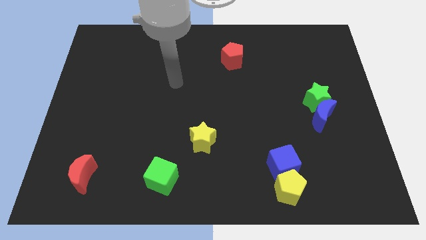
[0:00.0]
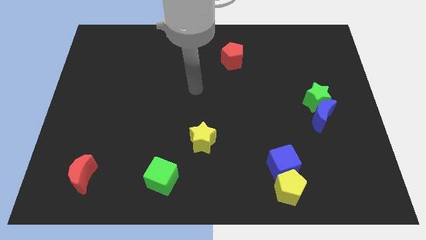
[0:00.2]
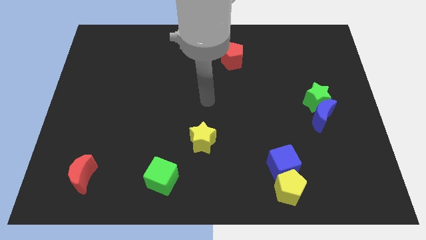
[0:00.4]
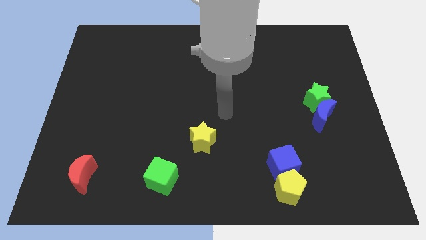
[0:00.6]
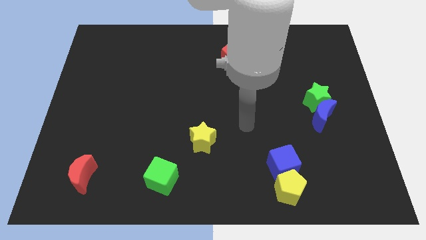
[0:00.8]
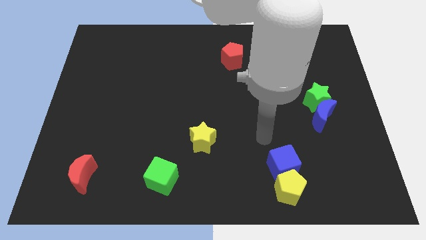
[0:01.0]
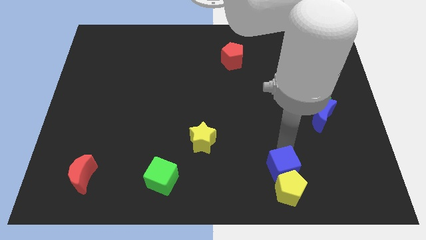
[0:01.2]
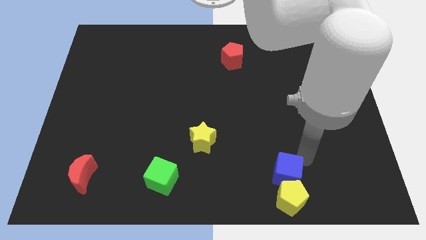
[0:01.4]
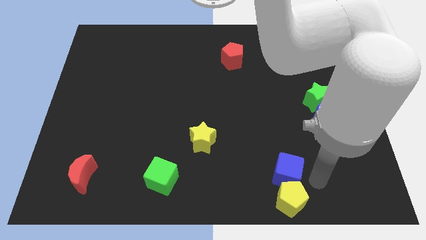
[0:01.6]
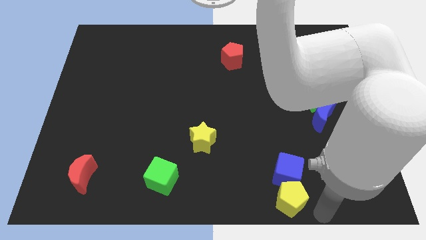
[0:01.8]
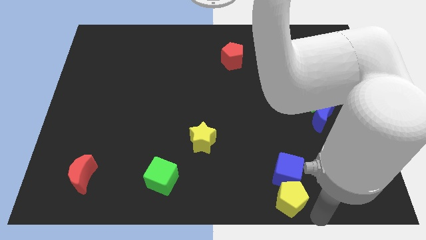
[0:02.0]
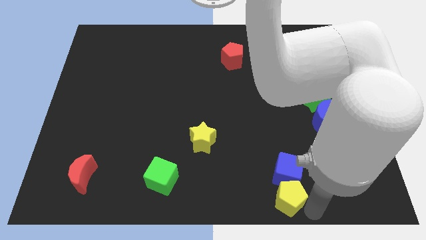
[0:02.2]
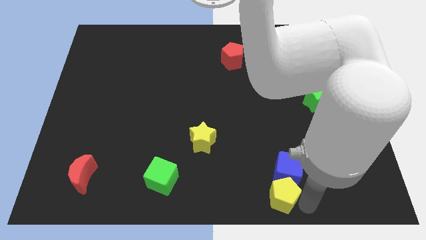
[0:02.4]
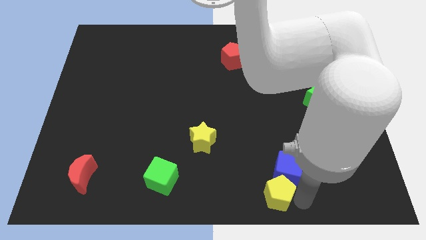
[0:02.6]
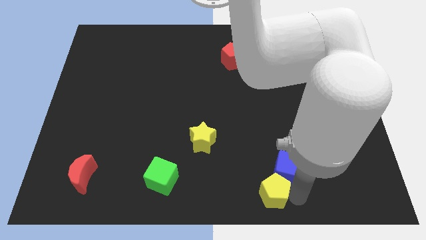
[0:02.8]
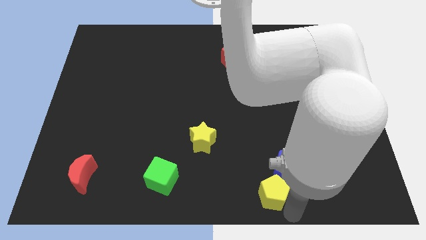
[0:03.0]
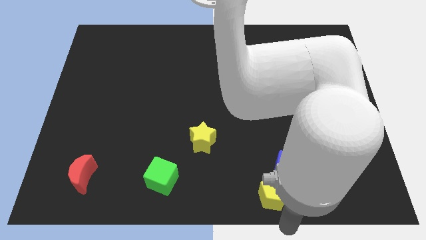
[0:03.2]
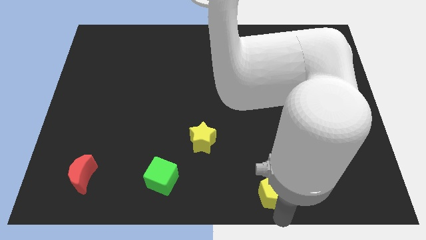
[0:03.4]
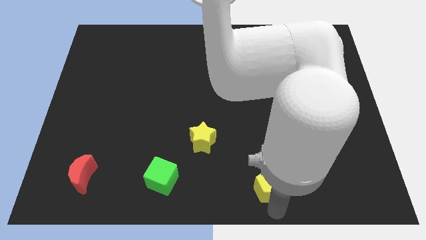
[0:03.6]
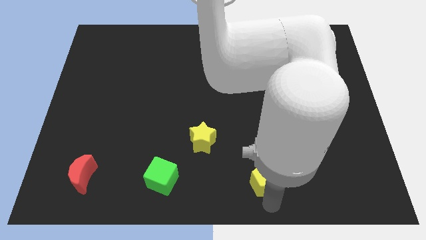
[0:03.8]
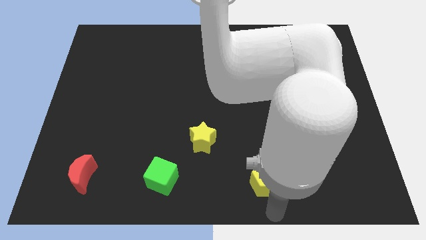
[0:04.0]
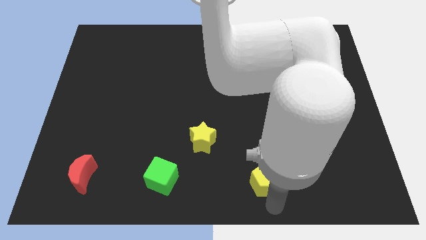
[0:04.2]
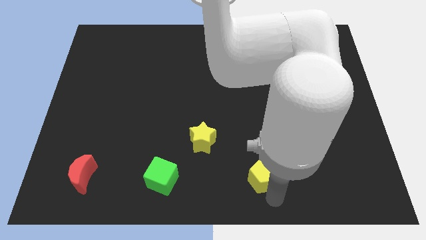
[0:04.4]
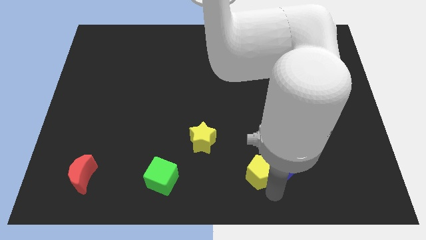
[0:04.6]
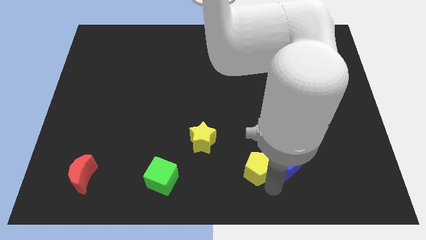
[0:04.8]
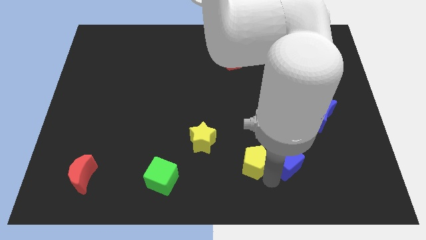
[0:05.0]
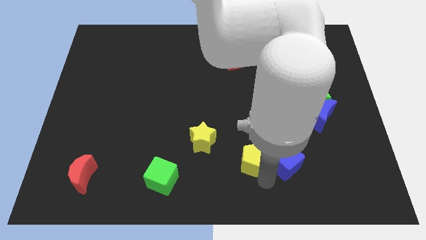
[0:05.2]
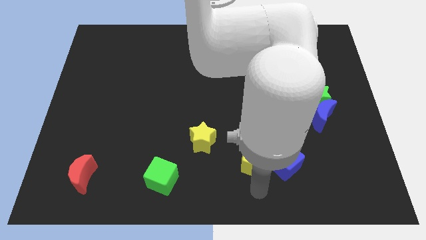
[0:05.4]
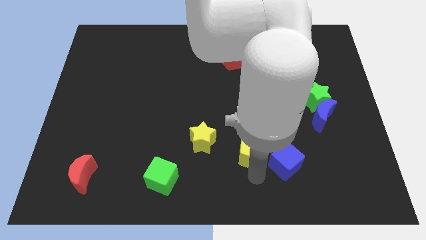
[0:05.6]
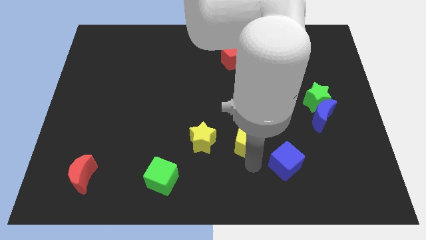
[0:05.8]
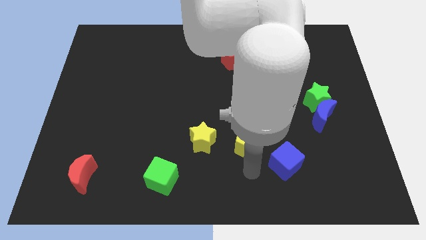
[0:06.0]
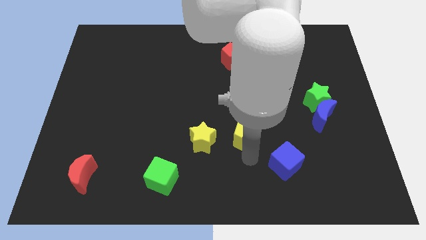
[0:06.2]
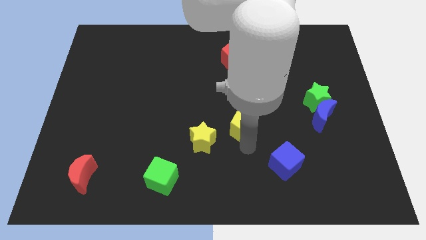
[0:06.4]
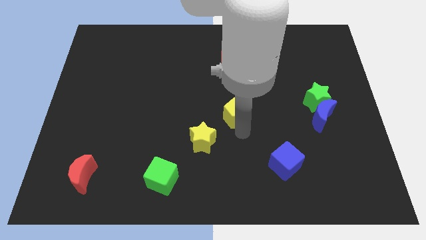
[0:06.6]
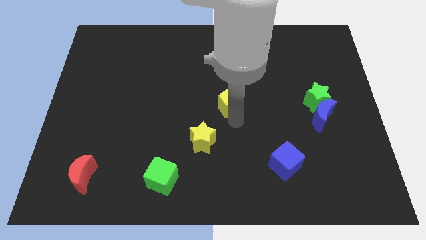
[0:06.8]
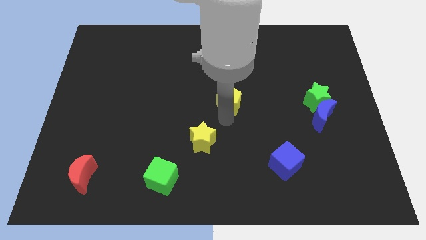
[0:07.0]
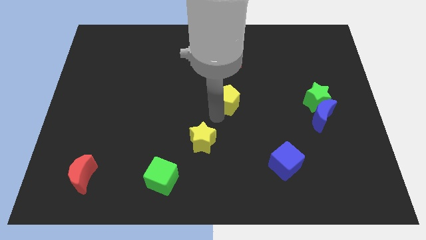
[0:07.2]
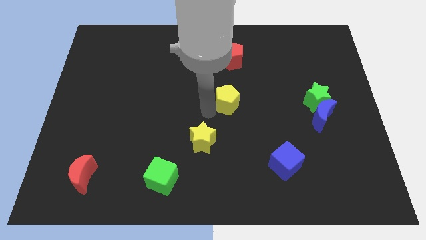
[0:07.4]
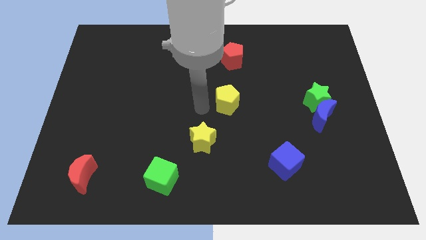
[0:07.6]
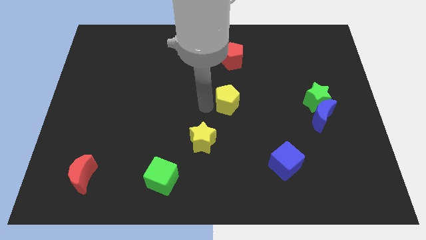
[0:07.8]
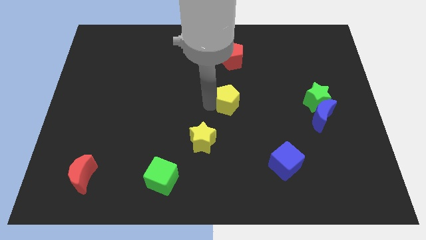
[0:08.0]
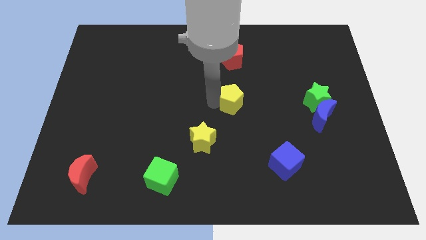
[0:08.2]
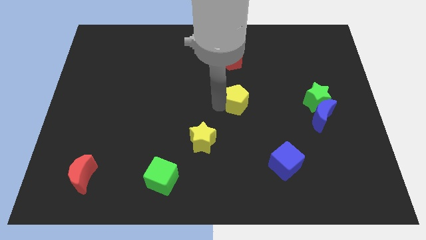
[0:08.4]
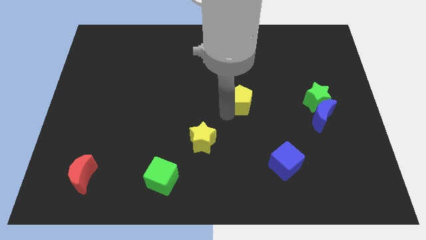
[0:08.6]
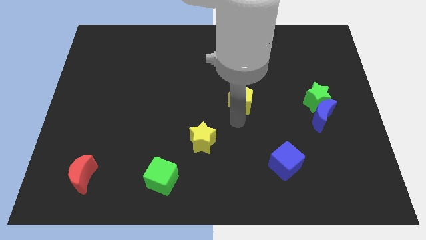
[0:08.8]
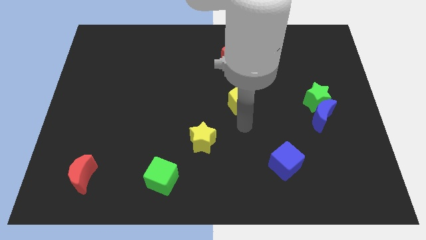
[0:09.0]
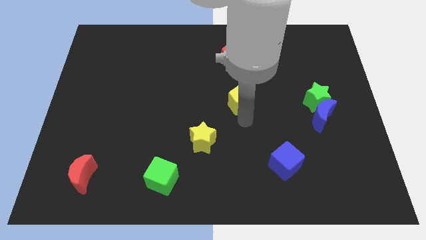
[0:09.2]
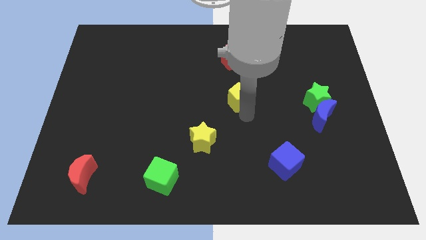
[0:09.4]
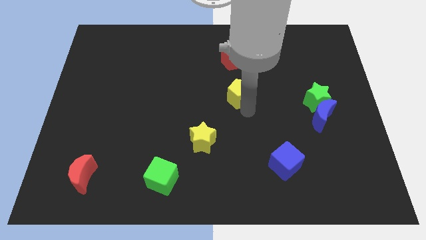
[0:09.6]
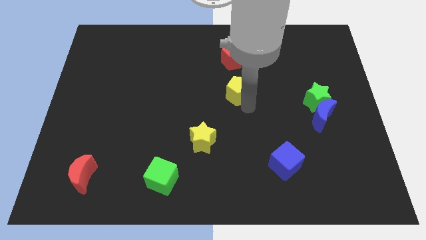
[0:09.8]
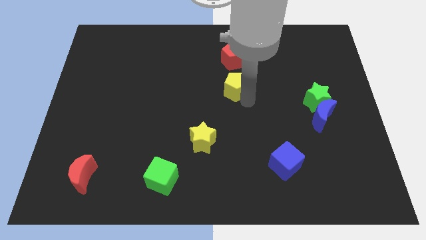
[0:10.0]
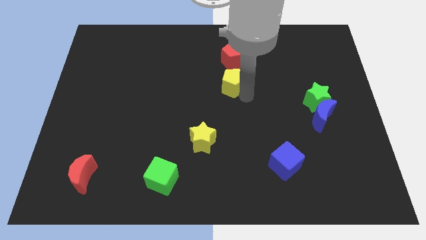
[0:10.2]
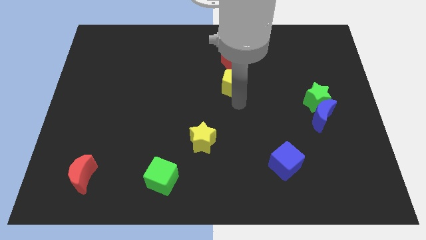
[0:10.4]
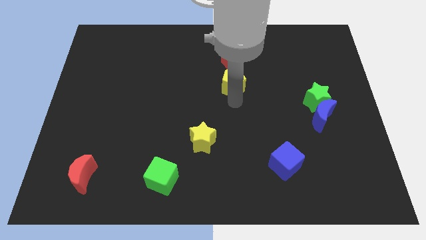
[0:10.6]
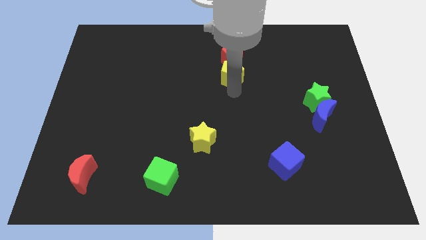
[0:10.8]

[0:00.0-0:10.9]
push the yellow pentagon close to the red pentagon

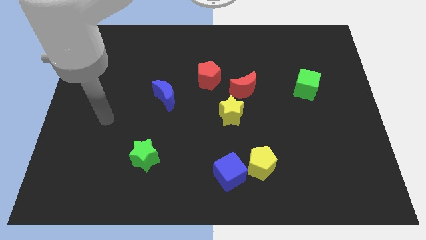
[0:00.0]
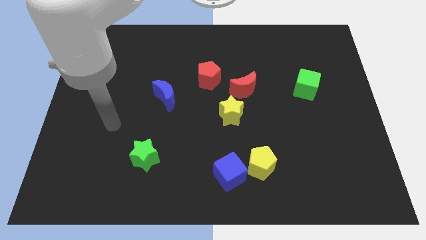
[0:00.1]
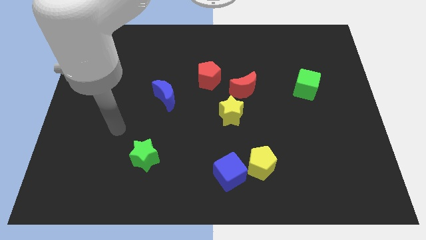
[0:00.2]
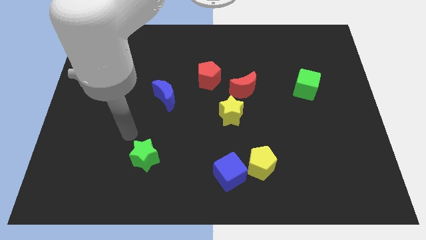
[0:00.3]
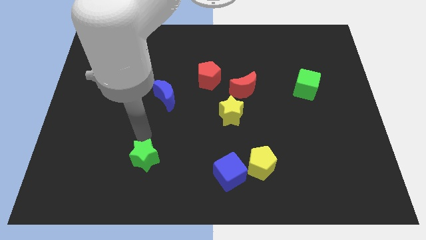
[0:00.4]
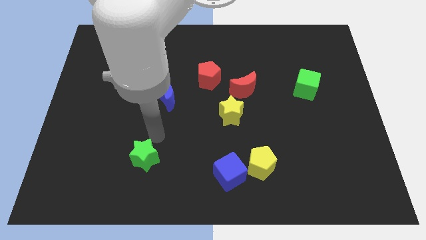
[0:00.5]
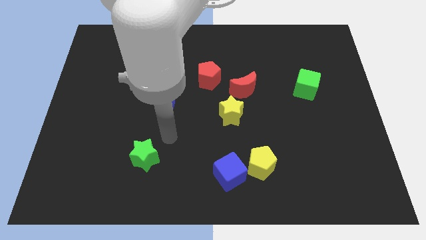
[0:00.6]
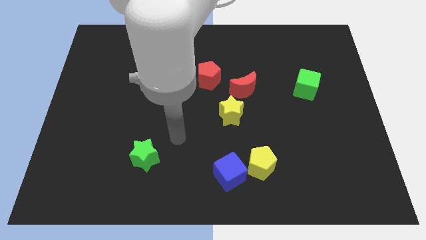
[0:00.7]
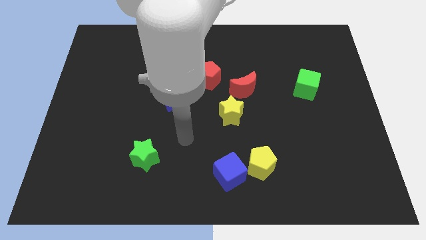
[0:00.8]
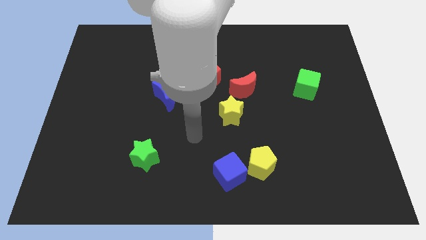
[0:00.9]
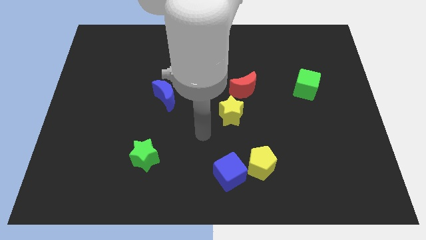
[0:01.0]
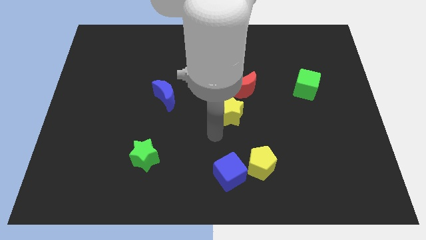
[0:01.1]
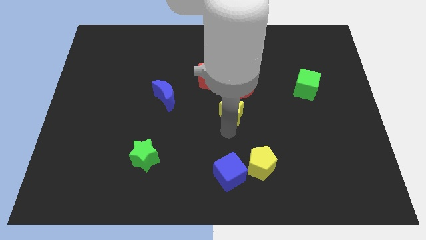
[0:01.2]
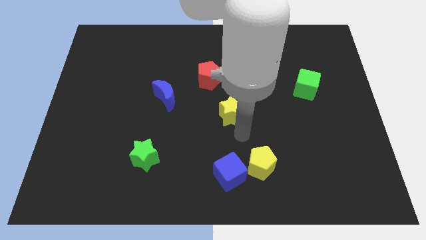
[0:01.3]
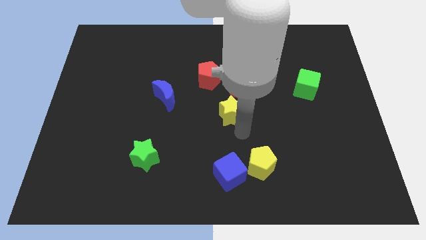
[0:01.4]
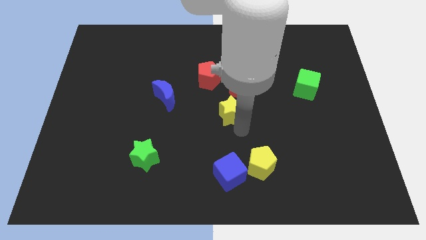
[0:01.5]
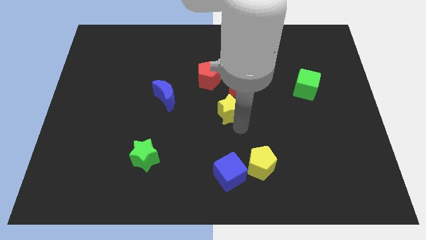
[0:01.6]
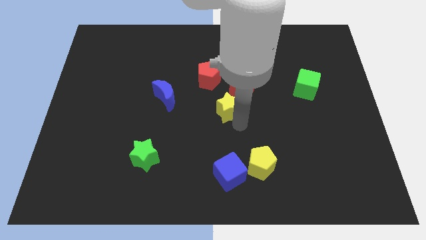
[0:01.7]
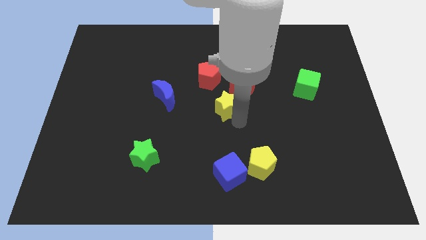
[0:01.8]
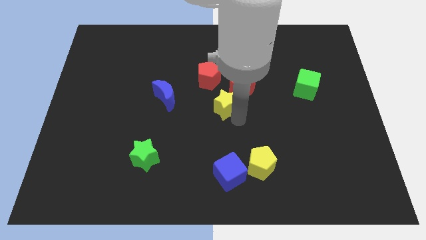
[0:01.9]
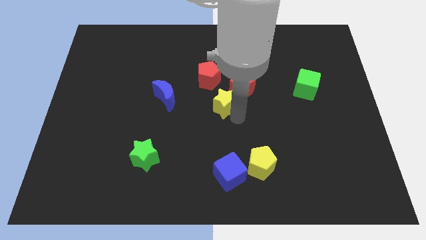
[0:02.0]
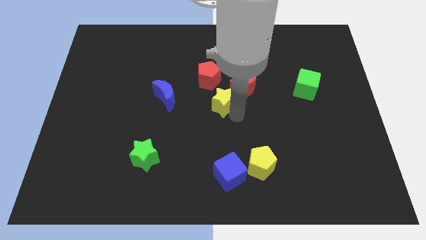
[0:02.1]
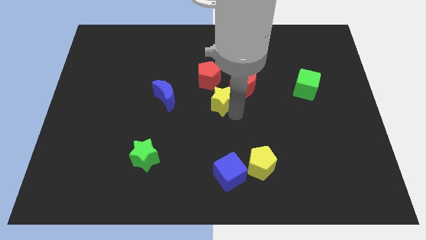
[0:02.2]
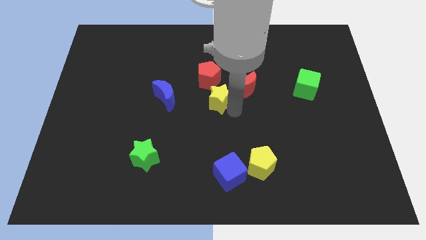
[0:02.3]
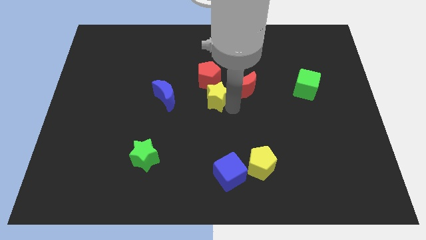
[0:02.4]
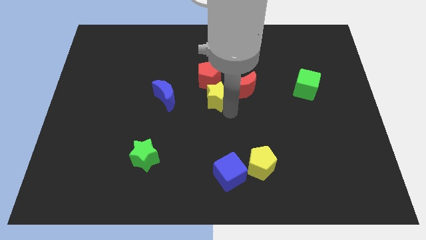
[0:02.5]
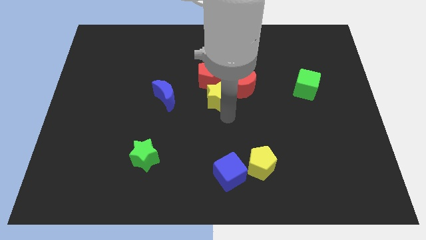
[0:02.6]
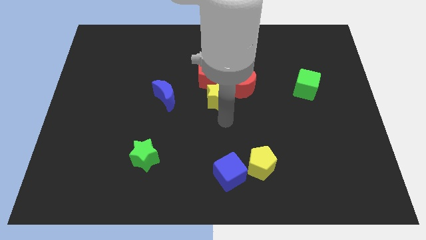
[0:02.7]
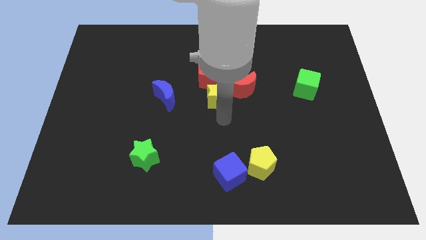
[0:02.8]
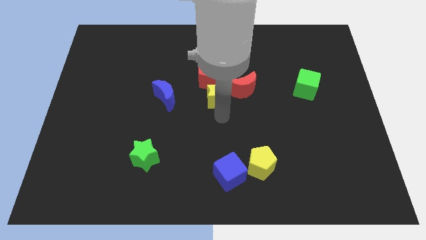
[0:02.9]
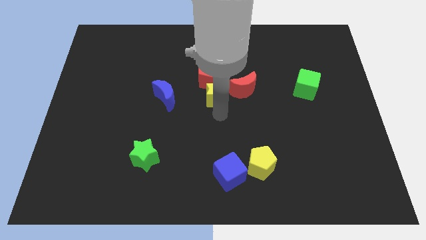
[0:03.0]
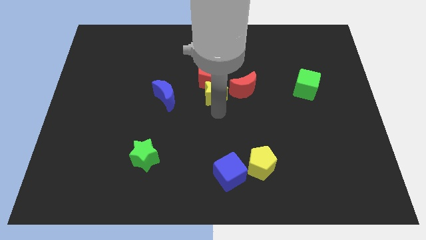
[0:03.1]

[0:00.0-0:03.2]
push the yellow star towards the red pentagon
